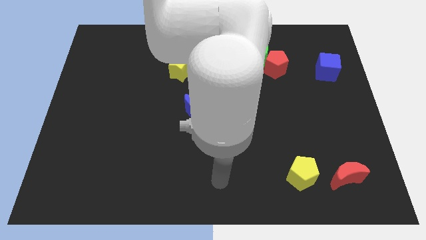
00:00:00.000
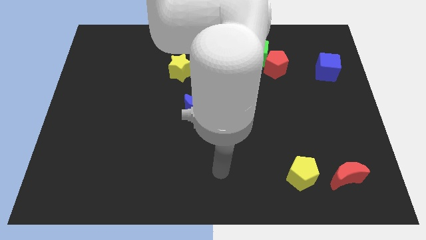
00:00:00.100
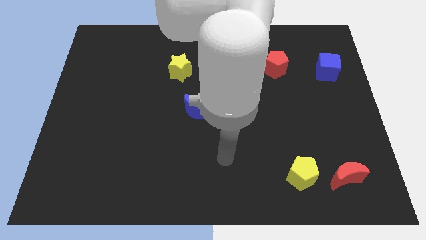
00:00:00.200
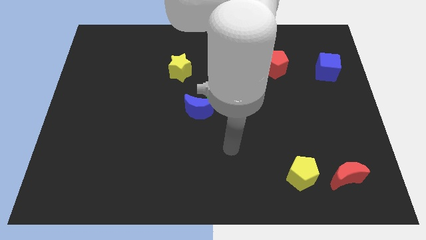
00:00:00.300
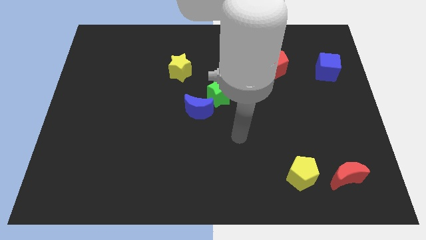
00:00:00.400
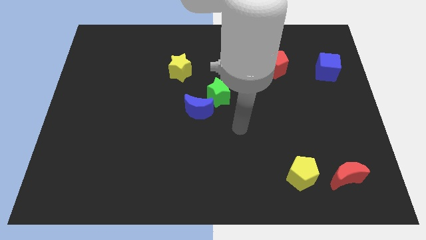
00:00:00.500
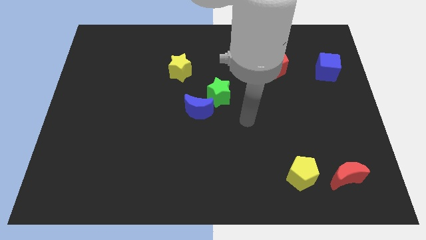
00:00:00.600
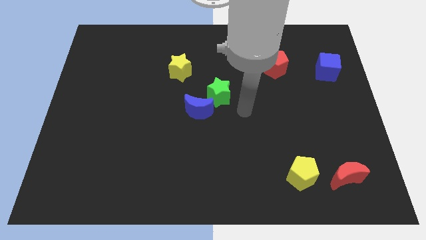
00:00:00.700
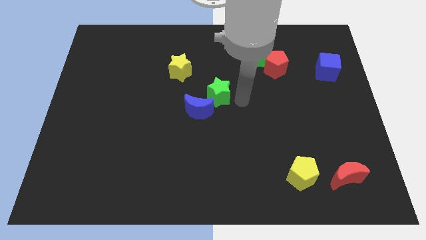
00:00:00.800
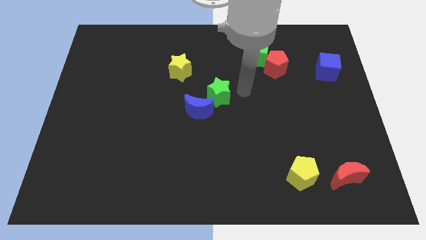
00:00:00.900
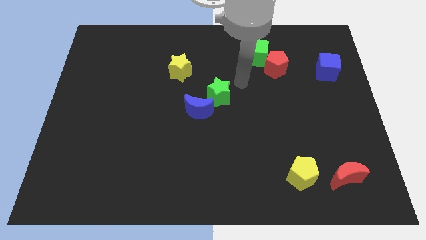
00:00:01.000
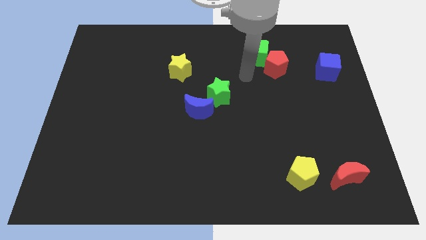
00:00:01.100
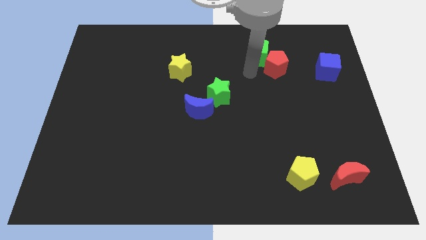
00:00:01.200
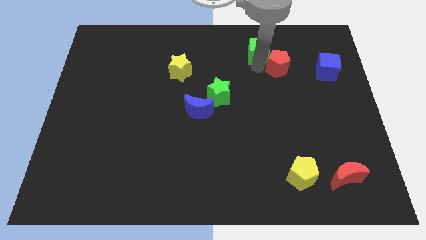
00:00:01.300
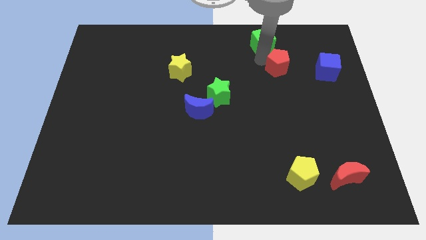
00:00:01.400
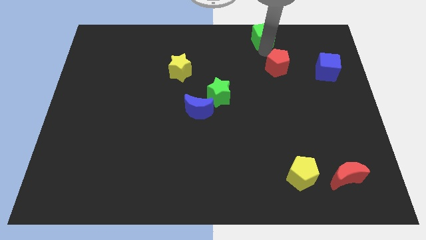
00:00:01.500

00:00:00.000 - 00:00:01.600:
pull the red pentagon apart from the green cube

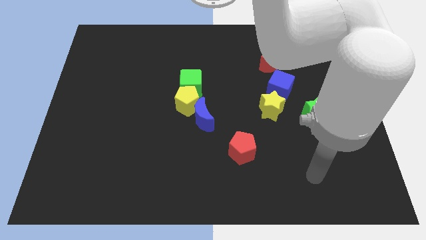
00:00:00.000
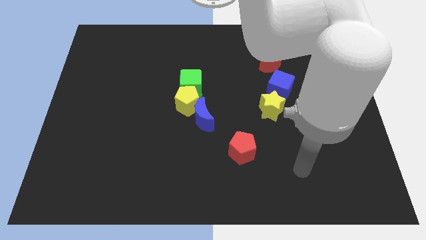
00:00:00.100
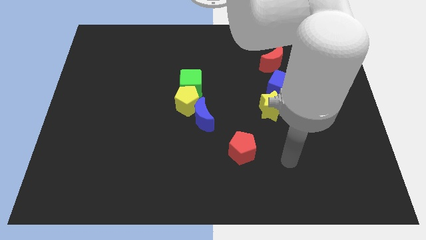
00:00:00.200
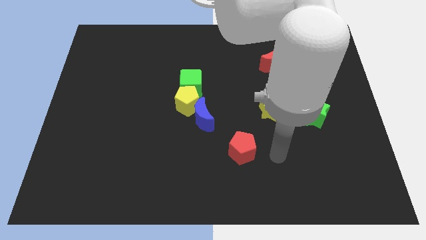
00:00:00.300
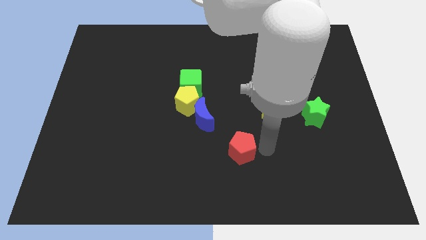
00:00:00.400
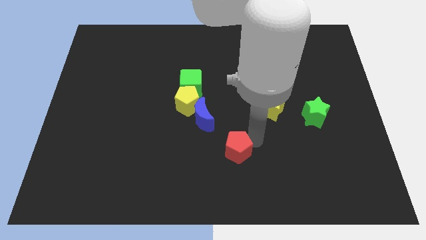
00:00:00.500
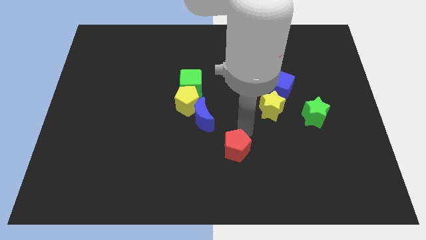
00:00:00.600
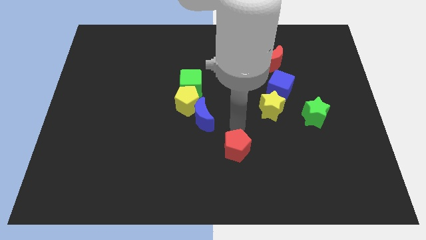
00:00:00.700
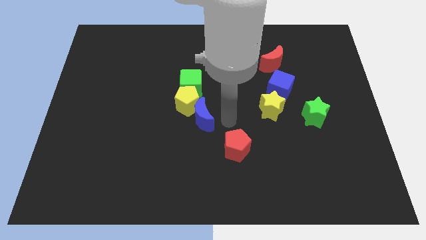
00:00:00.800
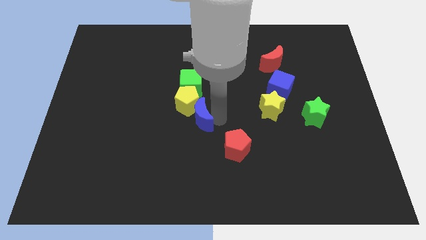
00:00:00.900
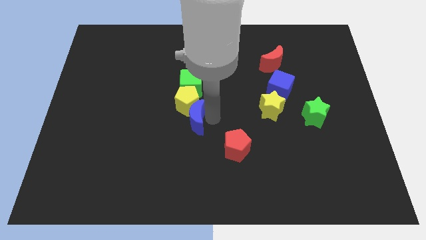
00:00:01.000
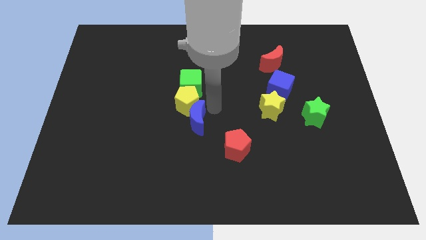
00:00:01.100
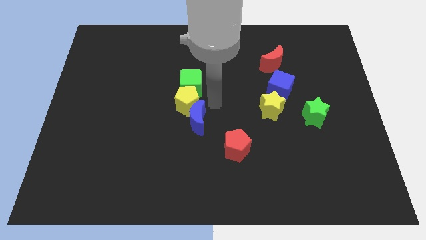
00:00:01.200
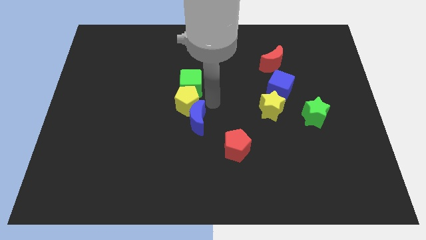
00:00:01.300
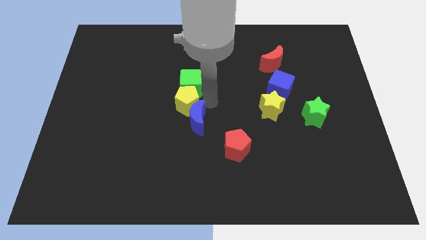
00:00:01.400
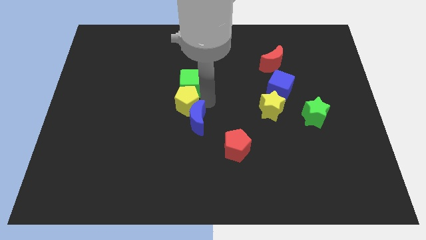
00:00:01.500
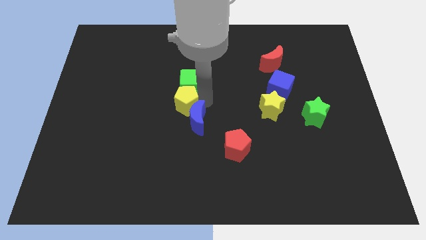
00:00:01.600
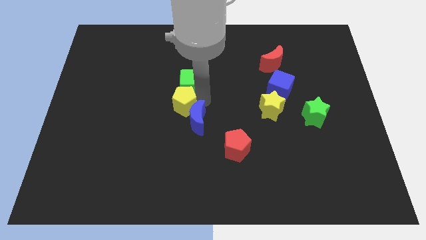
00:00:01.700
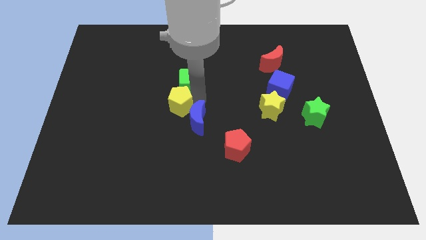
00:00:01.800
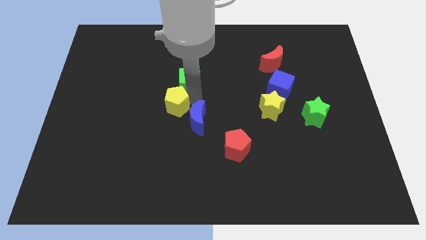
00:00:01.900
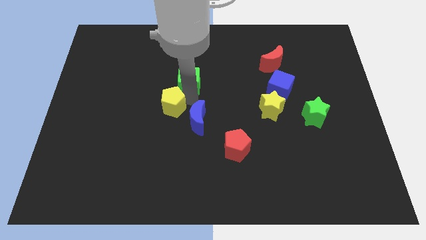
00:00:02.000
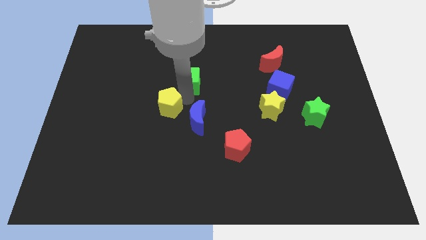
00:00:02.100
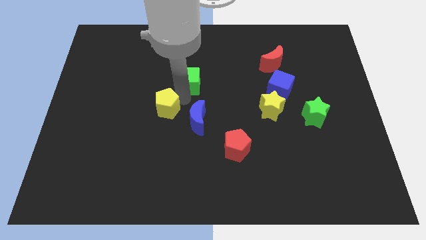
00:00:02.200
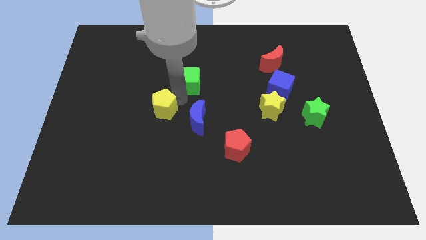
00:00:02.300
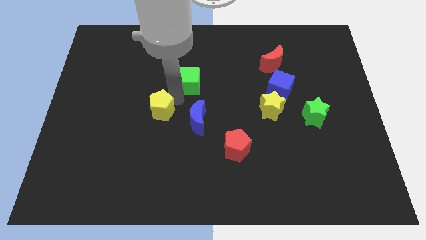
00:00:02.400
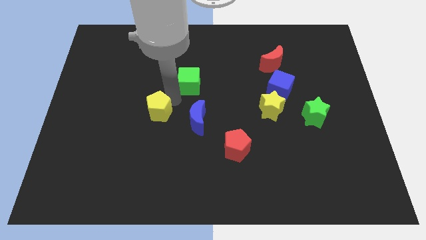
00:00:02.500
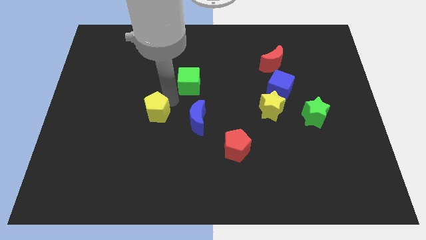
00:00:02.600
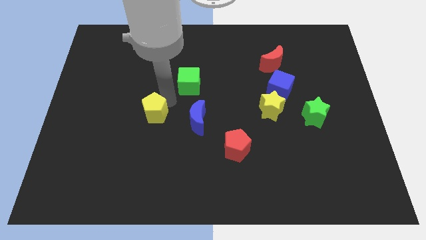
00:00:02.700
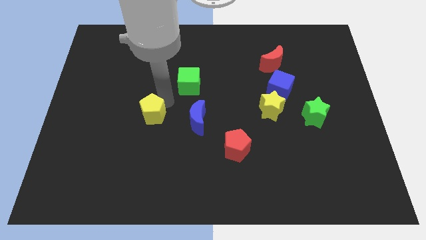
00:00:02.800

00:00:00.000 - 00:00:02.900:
pull the yellow pentagon apart from the green cube and blue moon

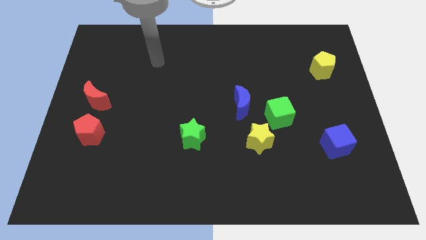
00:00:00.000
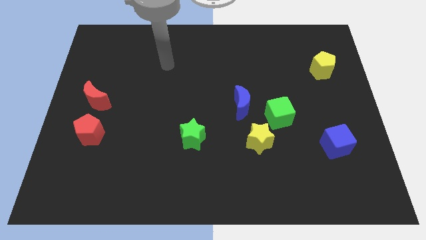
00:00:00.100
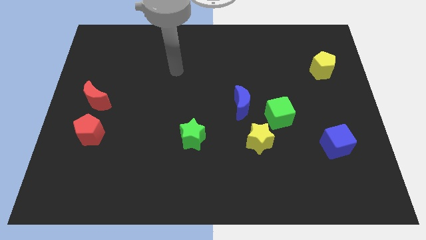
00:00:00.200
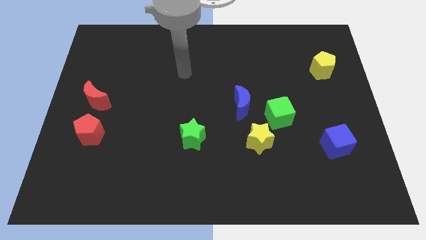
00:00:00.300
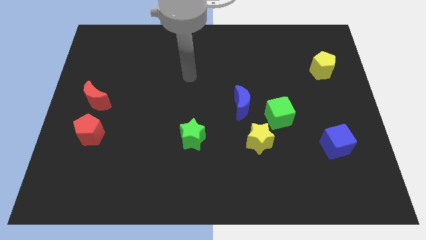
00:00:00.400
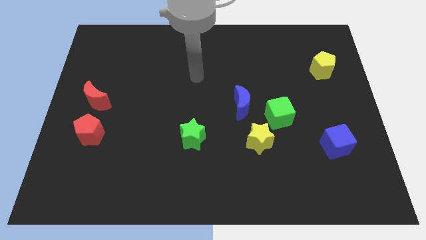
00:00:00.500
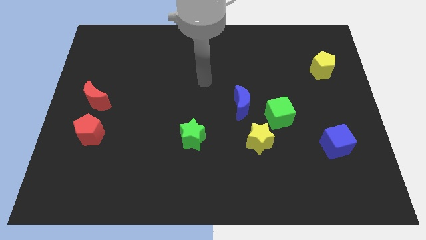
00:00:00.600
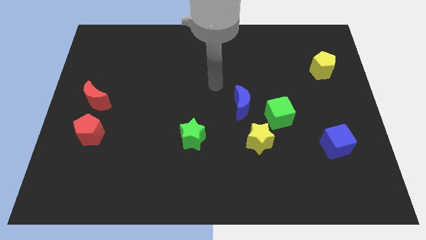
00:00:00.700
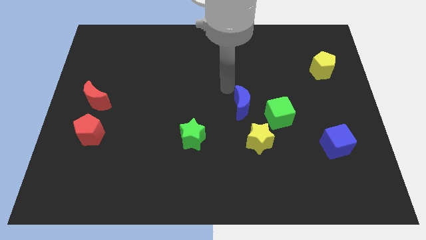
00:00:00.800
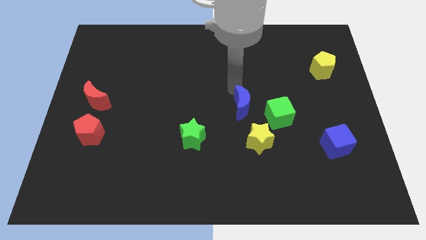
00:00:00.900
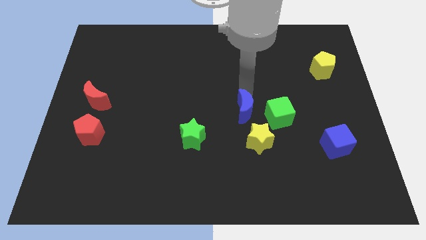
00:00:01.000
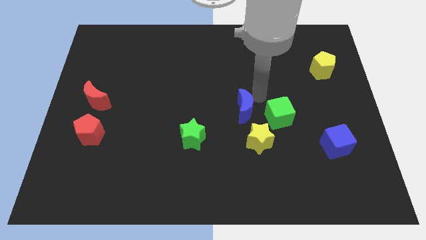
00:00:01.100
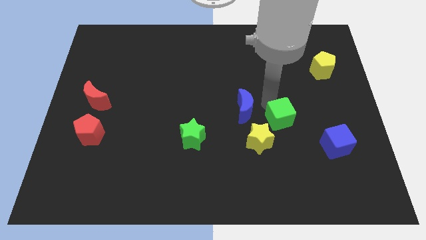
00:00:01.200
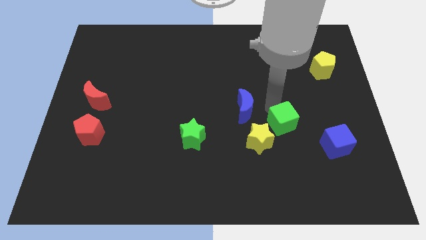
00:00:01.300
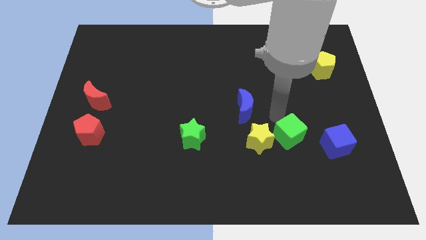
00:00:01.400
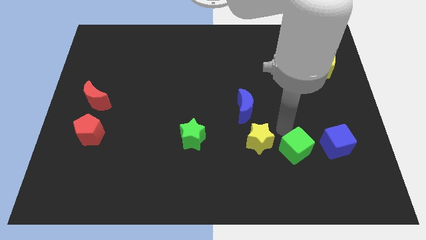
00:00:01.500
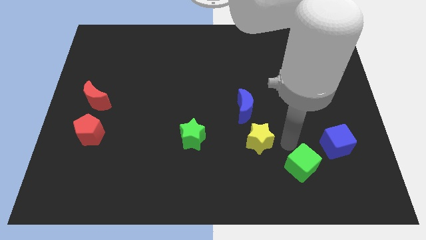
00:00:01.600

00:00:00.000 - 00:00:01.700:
separate the yellow star from the green cube

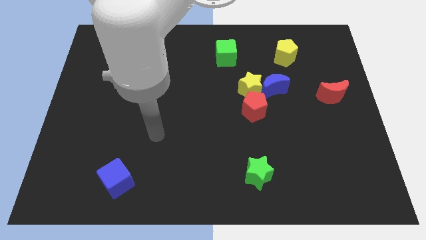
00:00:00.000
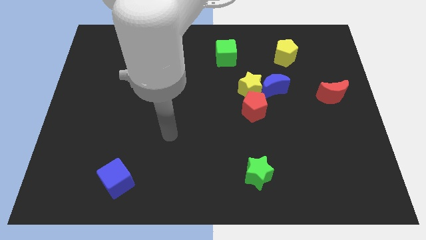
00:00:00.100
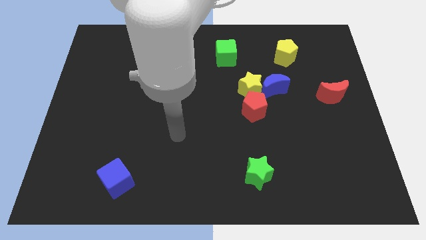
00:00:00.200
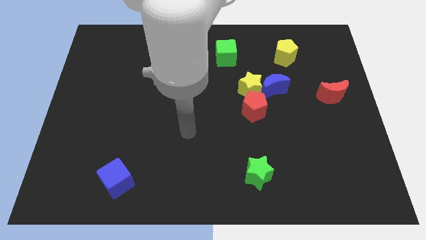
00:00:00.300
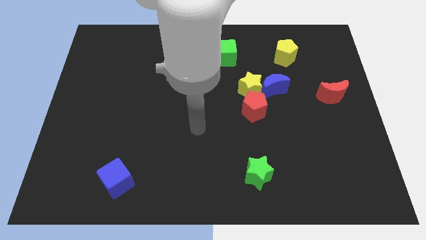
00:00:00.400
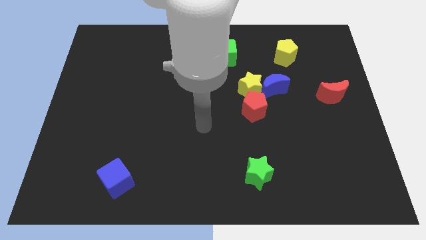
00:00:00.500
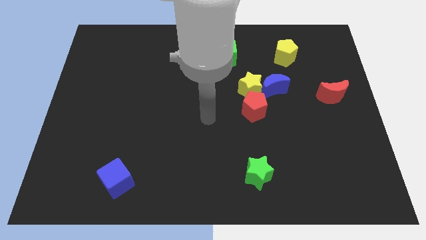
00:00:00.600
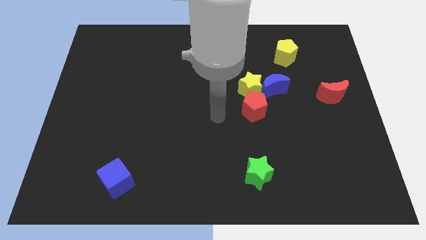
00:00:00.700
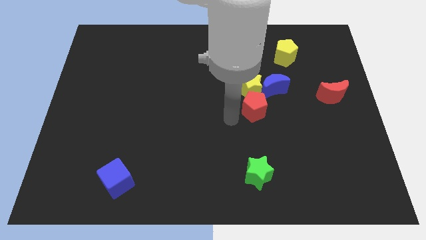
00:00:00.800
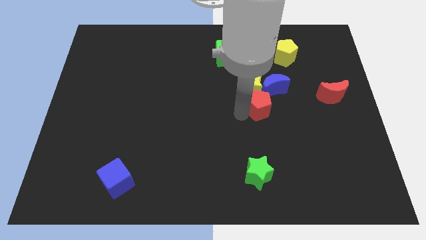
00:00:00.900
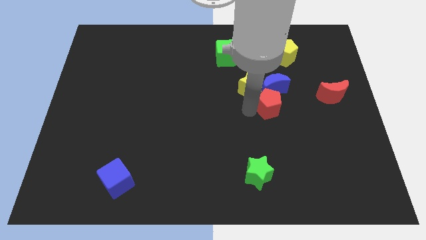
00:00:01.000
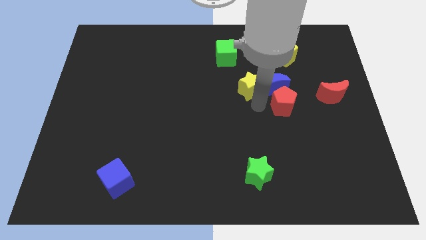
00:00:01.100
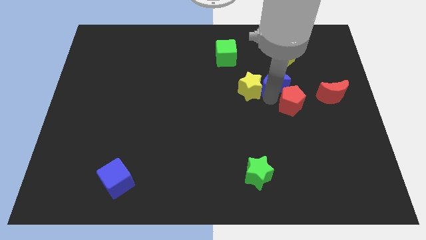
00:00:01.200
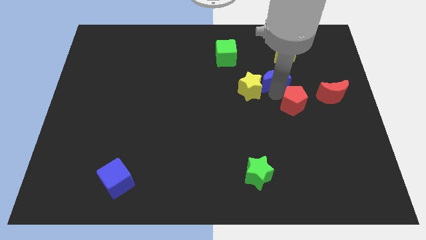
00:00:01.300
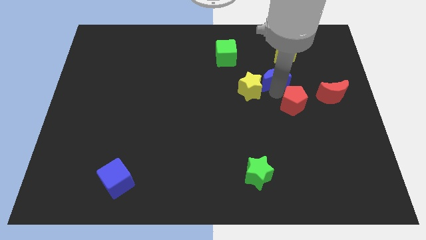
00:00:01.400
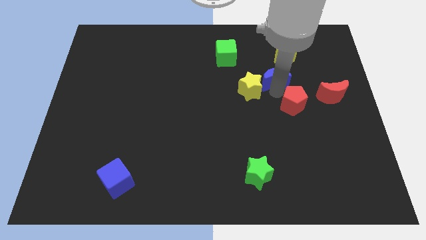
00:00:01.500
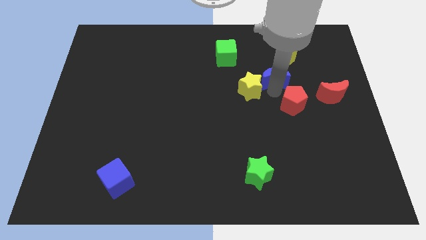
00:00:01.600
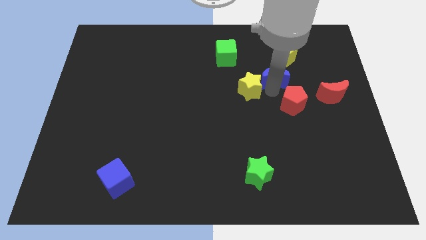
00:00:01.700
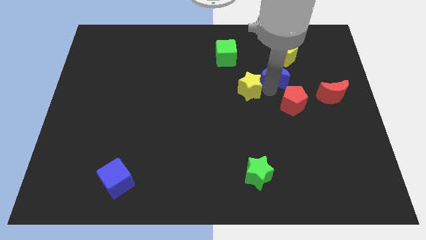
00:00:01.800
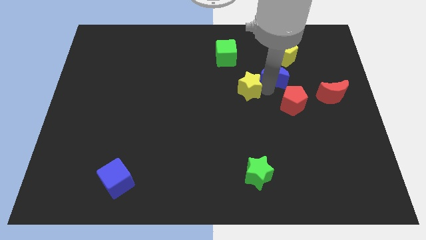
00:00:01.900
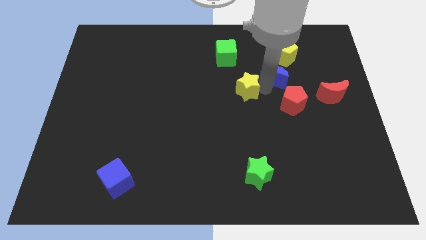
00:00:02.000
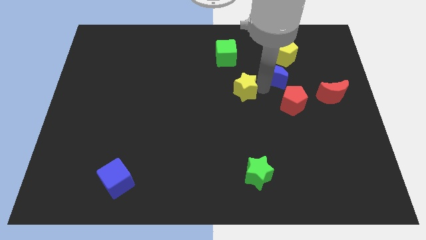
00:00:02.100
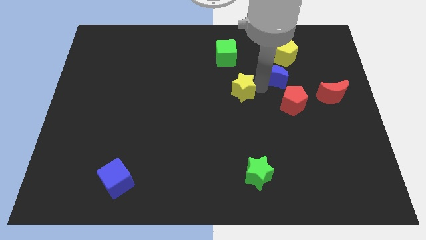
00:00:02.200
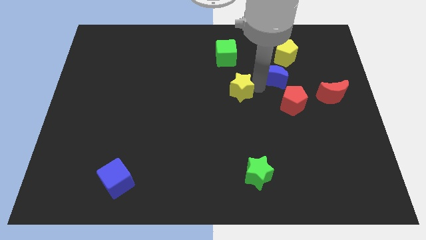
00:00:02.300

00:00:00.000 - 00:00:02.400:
pull the yellow star apart from the blue moon and red pentagon

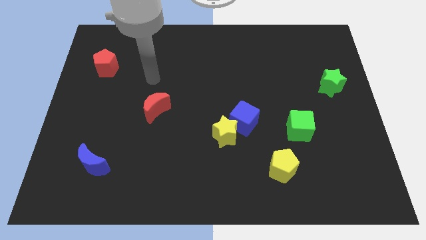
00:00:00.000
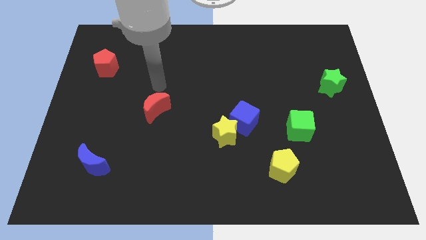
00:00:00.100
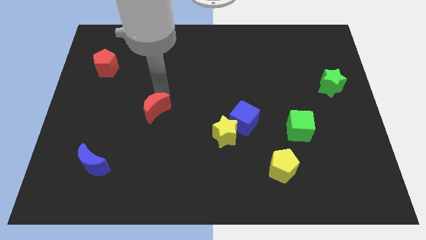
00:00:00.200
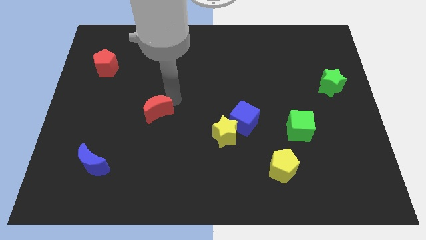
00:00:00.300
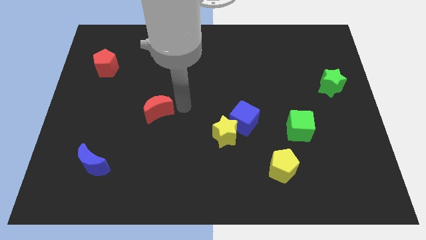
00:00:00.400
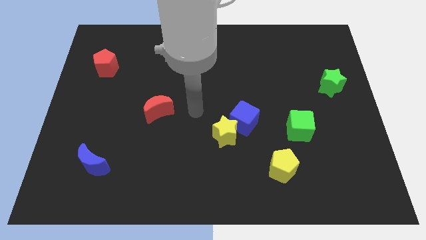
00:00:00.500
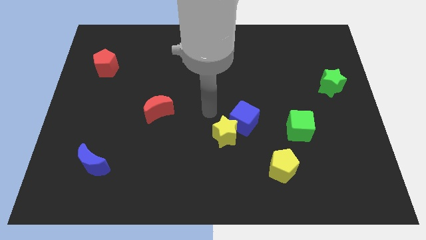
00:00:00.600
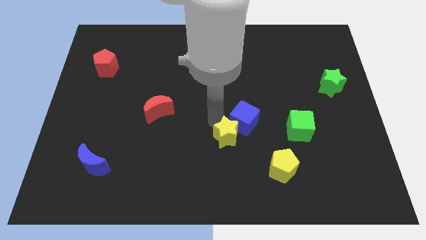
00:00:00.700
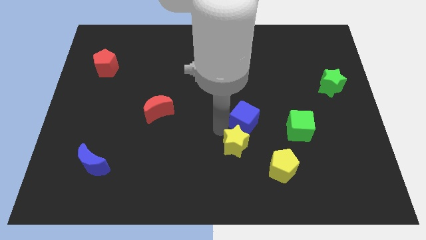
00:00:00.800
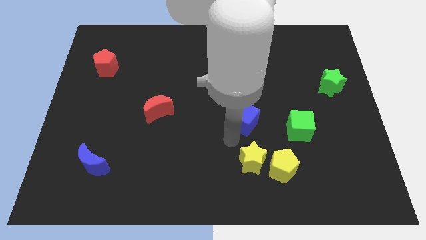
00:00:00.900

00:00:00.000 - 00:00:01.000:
pull the blue cube apart from the yellow star
